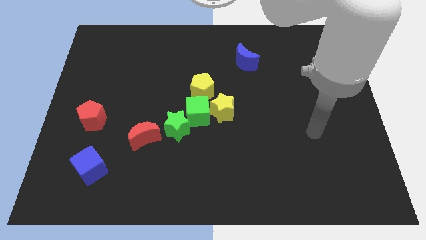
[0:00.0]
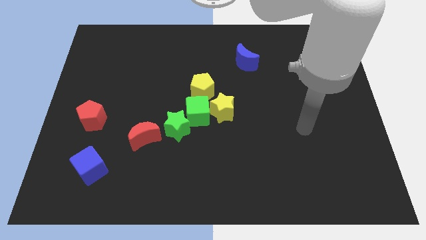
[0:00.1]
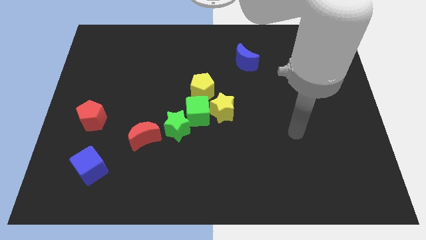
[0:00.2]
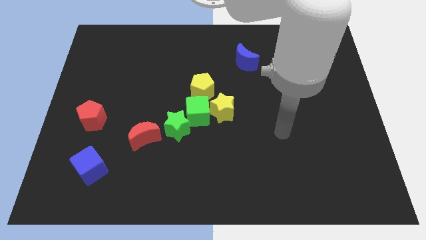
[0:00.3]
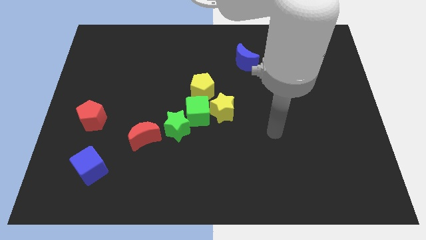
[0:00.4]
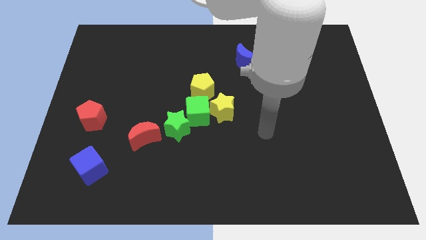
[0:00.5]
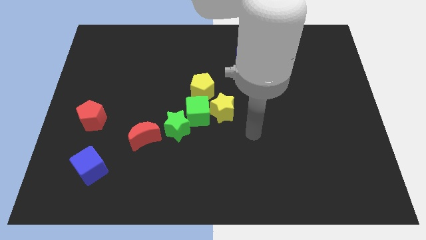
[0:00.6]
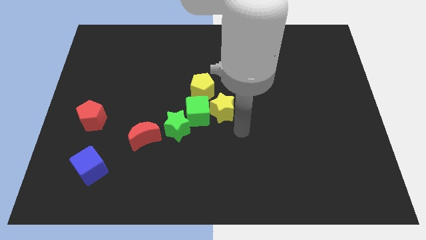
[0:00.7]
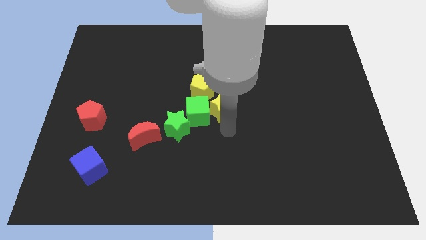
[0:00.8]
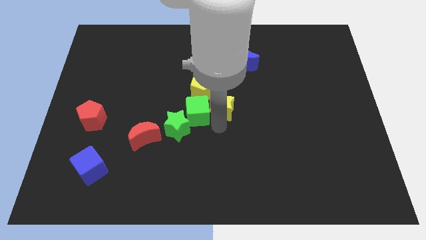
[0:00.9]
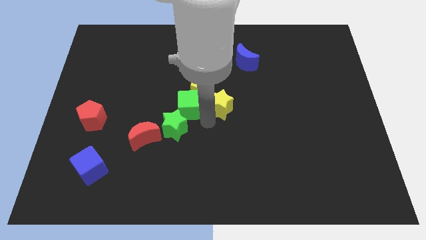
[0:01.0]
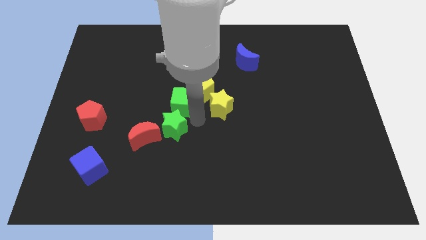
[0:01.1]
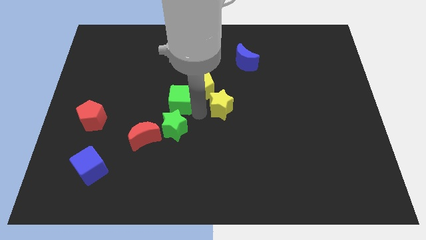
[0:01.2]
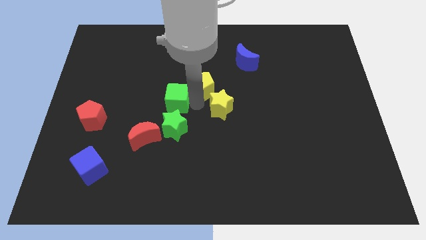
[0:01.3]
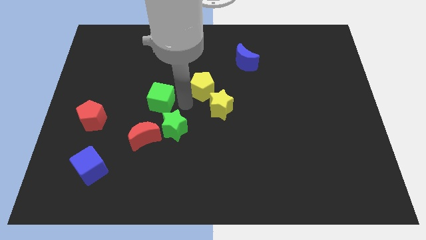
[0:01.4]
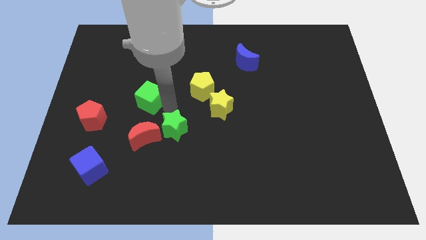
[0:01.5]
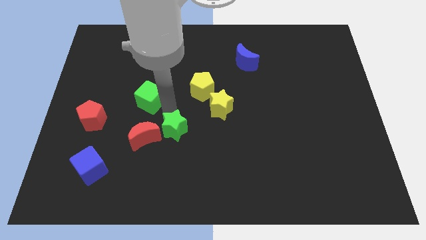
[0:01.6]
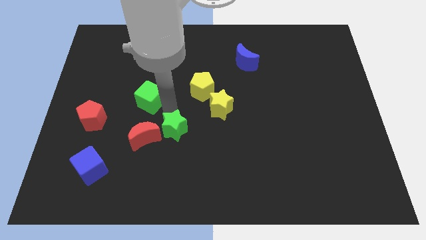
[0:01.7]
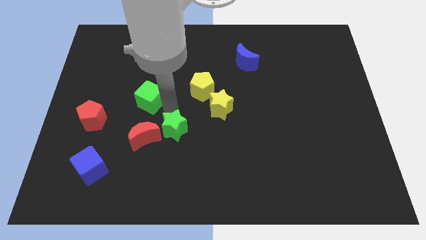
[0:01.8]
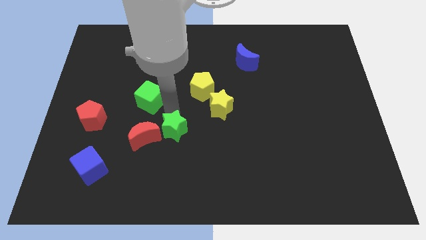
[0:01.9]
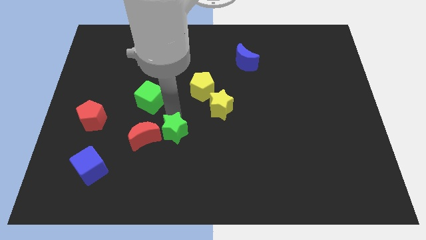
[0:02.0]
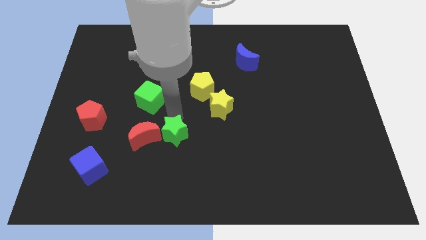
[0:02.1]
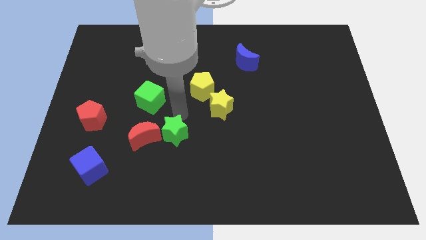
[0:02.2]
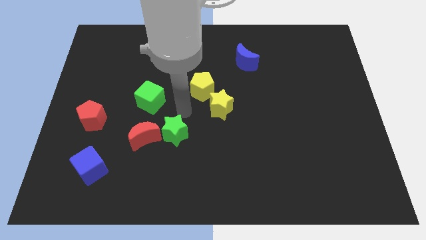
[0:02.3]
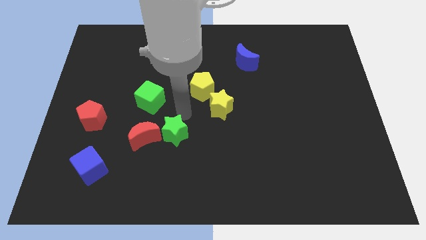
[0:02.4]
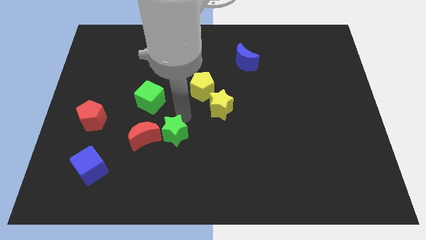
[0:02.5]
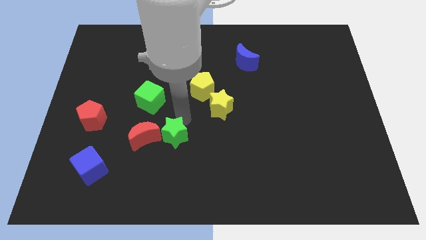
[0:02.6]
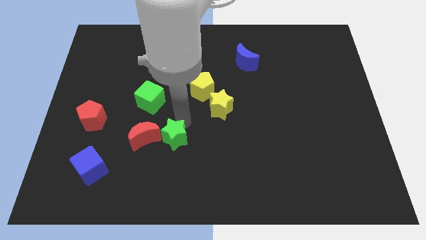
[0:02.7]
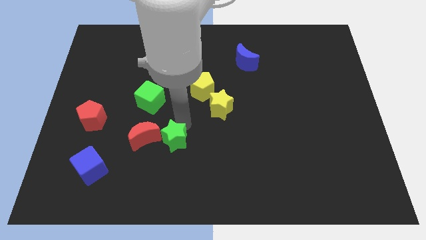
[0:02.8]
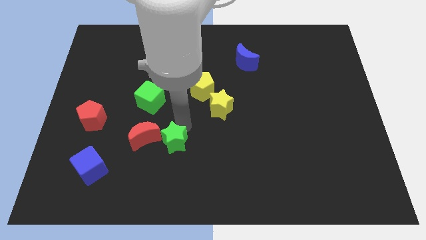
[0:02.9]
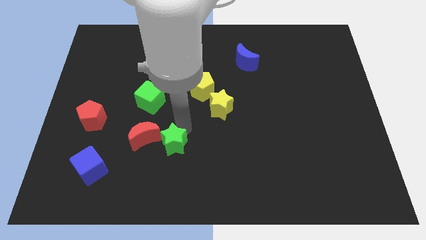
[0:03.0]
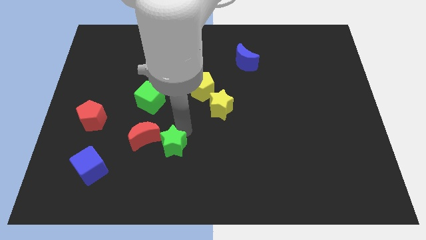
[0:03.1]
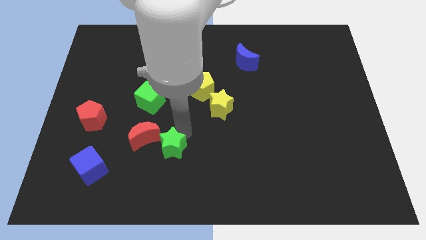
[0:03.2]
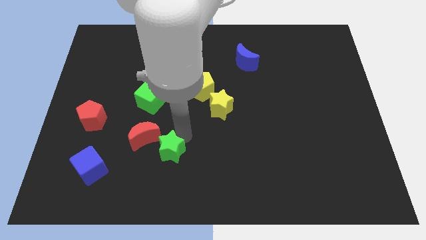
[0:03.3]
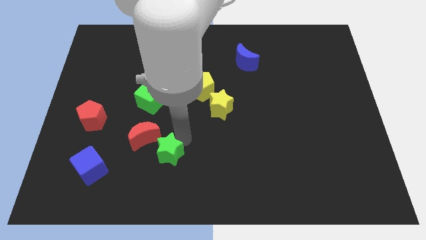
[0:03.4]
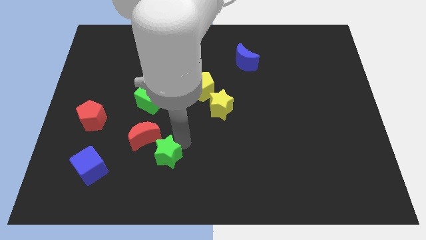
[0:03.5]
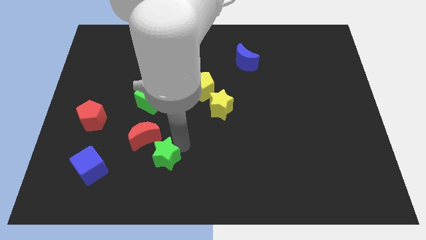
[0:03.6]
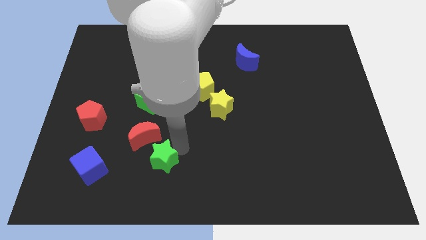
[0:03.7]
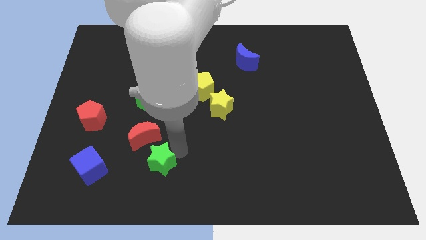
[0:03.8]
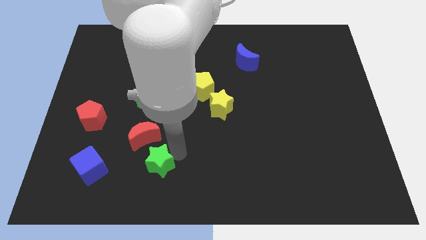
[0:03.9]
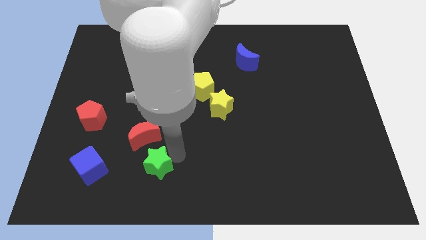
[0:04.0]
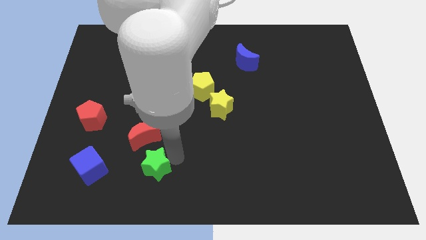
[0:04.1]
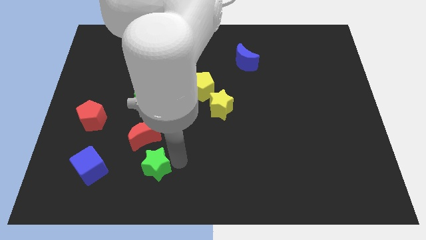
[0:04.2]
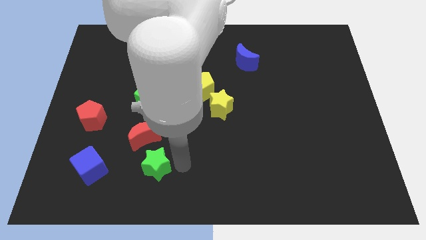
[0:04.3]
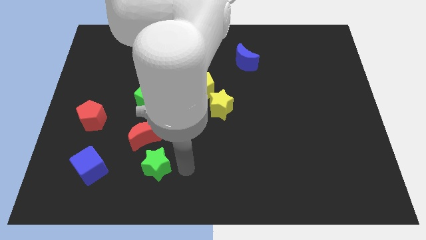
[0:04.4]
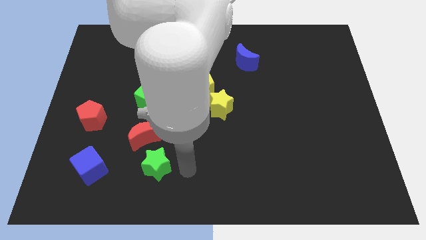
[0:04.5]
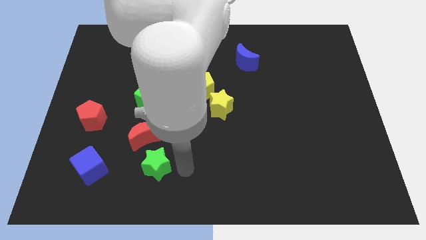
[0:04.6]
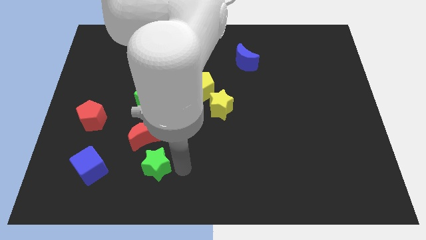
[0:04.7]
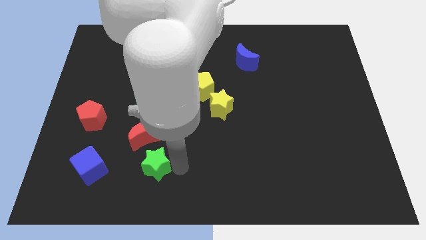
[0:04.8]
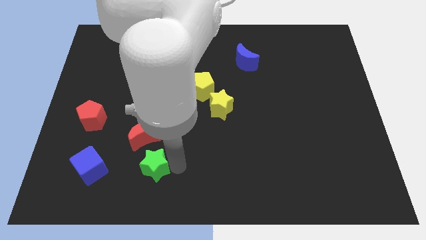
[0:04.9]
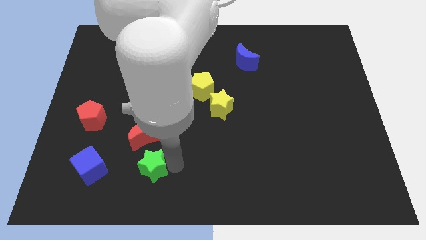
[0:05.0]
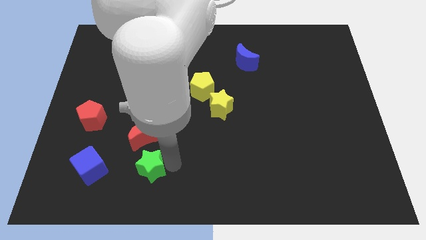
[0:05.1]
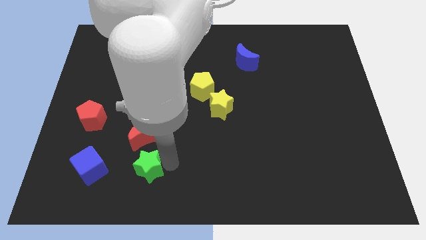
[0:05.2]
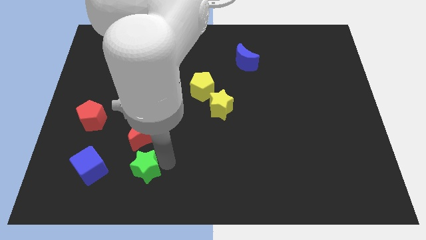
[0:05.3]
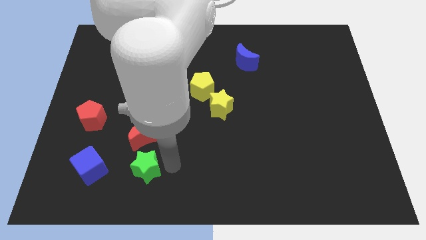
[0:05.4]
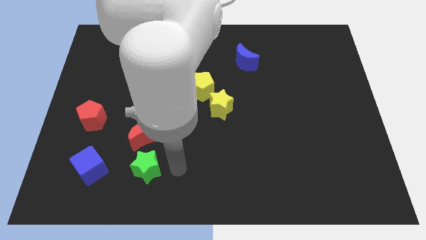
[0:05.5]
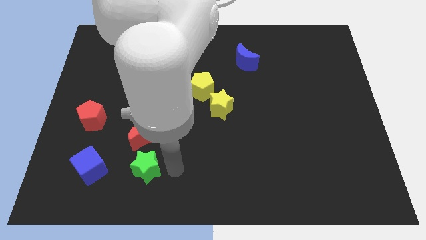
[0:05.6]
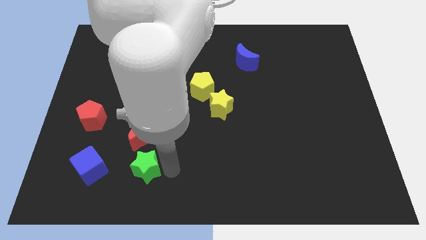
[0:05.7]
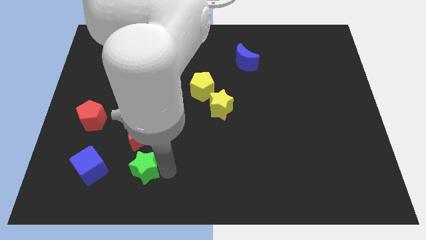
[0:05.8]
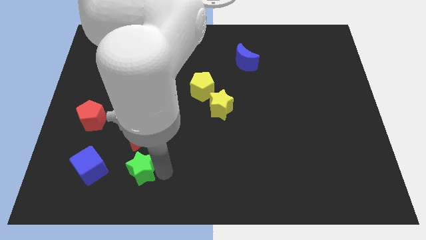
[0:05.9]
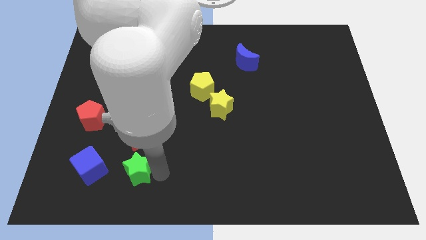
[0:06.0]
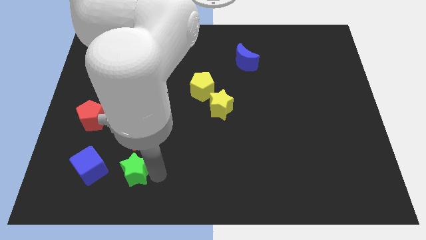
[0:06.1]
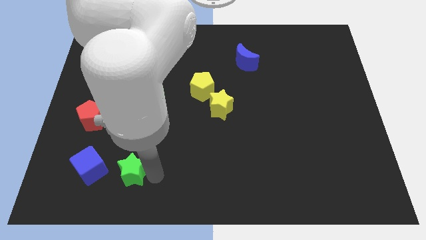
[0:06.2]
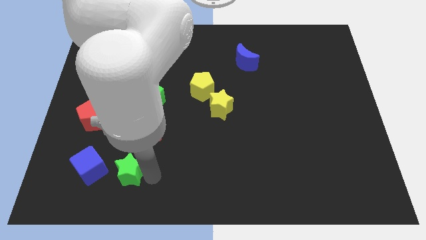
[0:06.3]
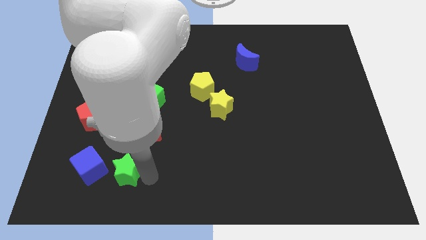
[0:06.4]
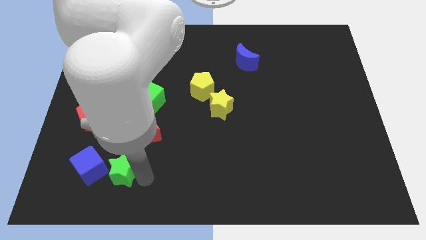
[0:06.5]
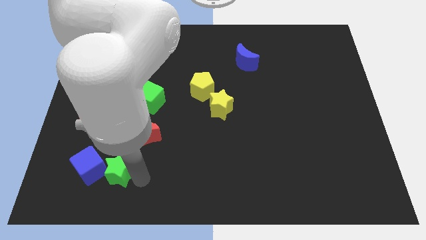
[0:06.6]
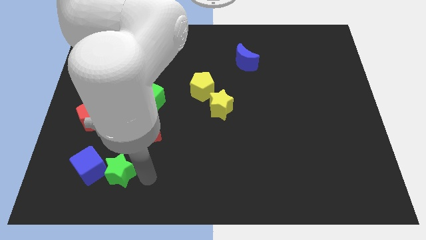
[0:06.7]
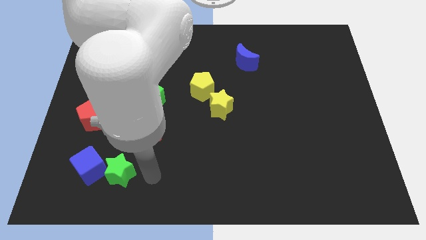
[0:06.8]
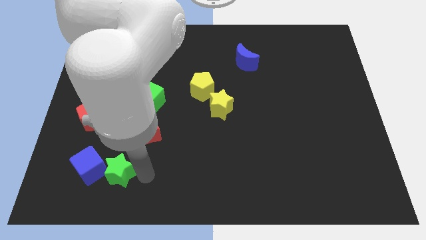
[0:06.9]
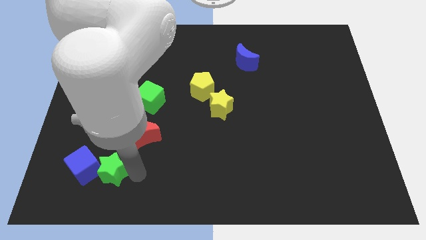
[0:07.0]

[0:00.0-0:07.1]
slide the green star to the blue cube
